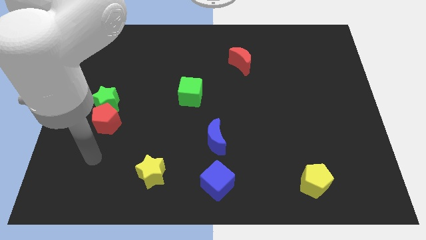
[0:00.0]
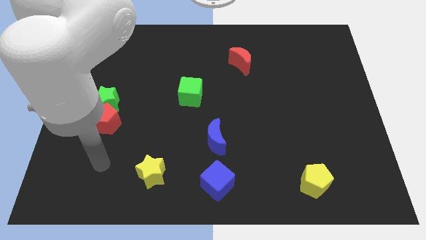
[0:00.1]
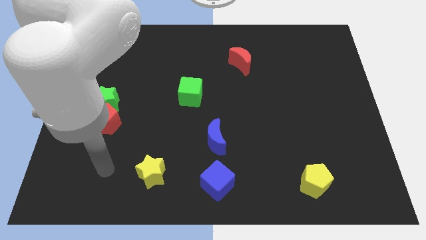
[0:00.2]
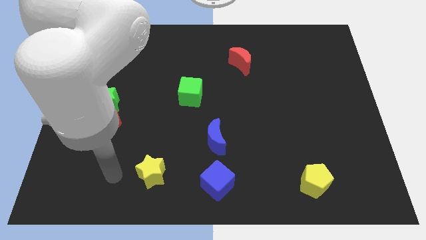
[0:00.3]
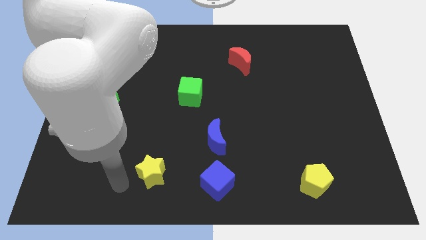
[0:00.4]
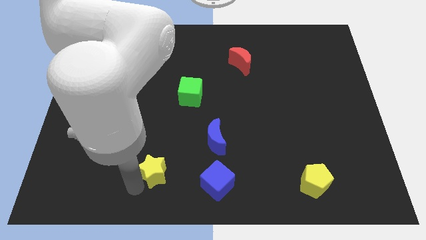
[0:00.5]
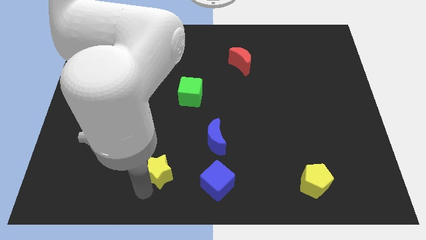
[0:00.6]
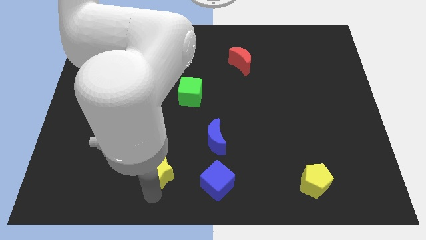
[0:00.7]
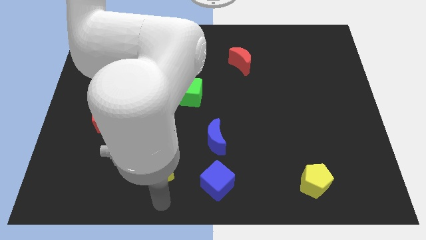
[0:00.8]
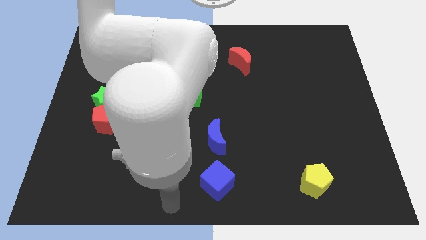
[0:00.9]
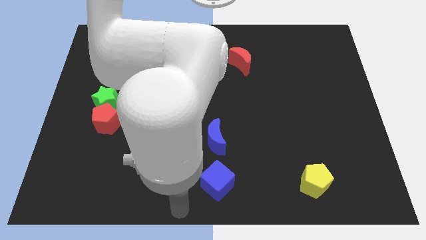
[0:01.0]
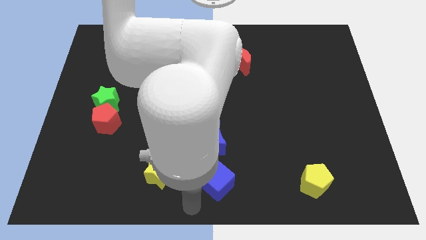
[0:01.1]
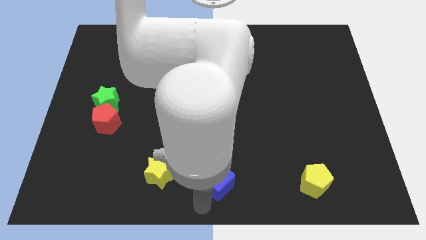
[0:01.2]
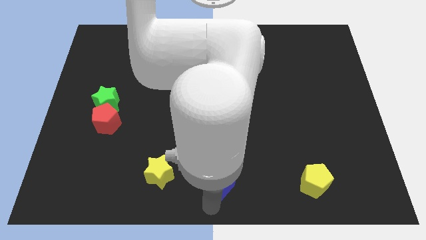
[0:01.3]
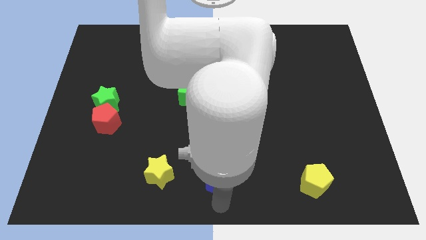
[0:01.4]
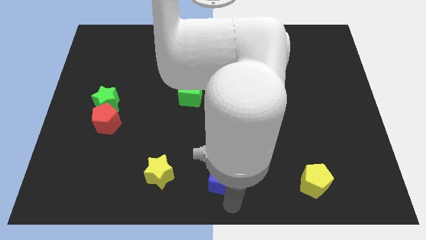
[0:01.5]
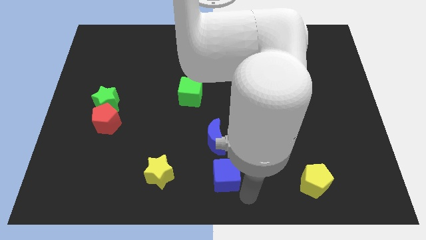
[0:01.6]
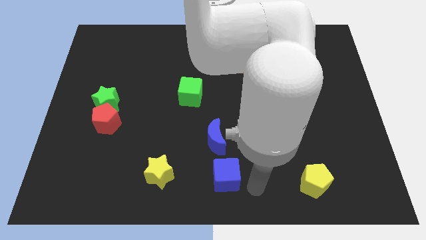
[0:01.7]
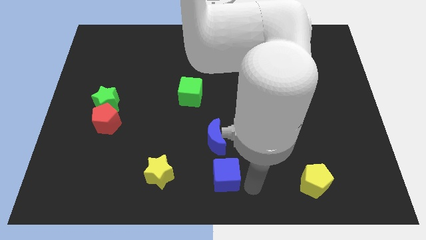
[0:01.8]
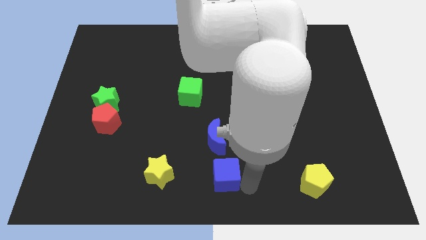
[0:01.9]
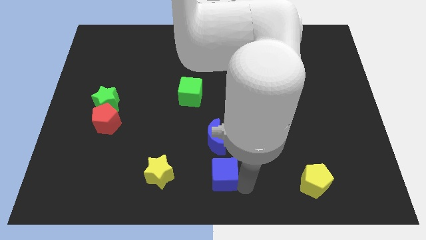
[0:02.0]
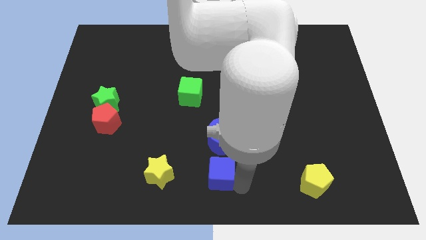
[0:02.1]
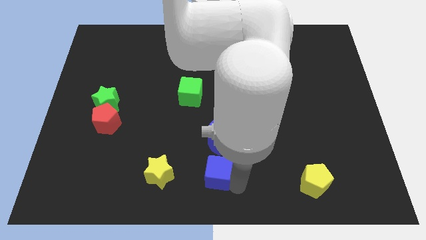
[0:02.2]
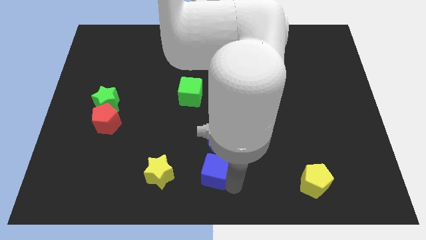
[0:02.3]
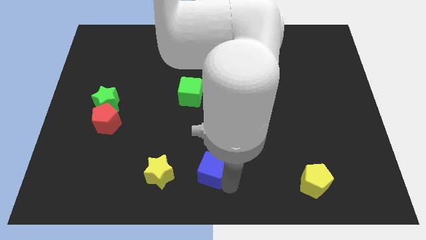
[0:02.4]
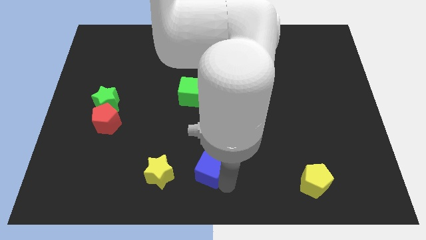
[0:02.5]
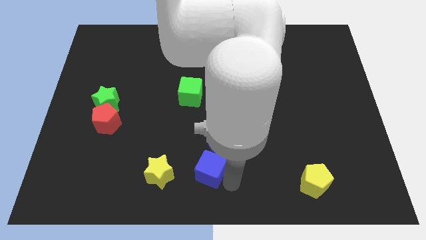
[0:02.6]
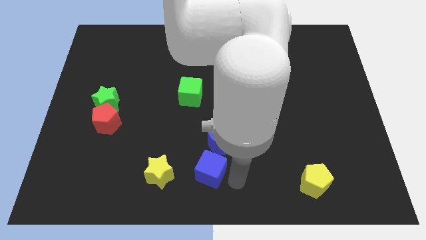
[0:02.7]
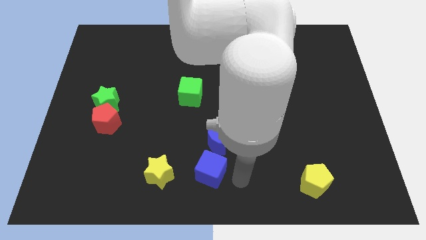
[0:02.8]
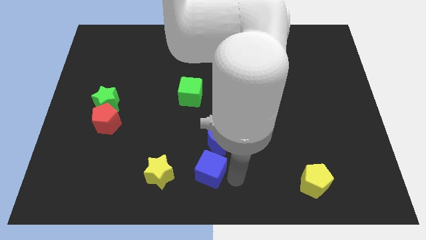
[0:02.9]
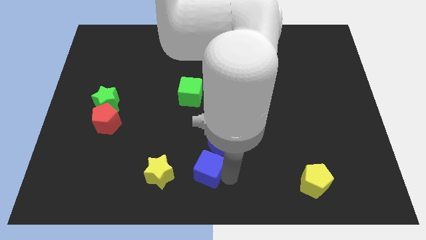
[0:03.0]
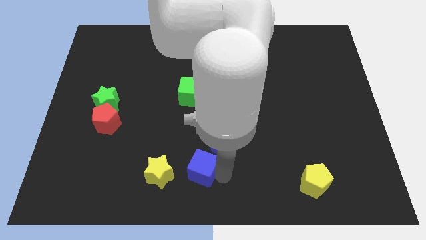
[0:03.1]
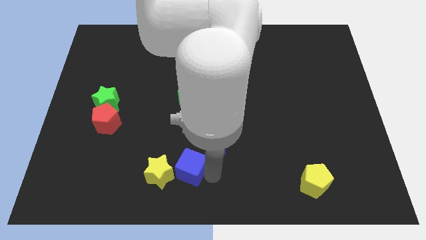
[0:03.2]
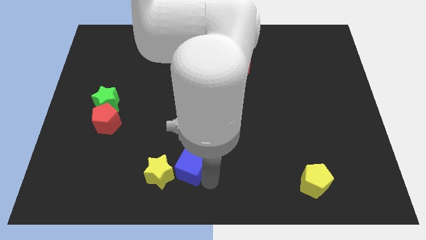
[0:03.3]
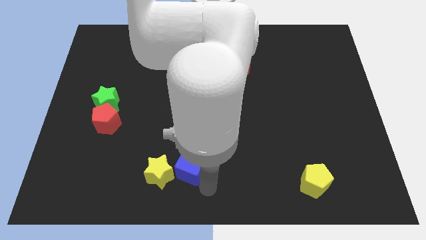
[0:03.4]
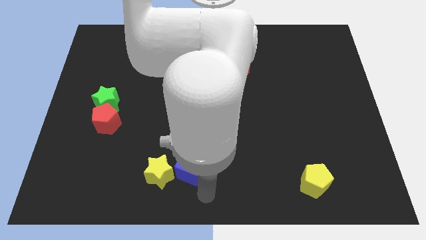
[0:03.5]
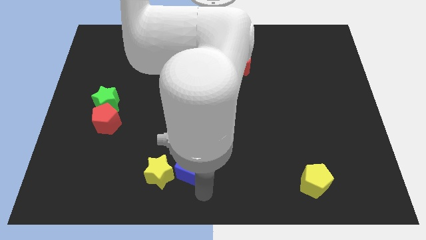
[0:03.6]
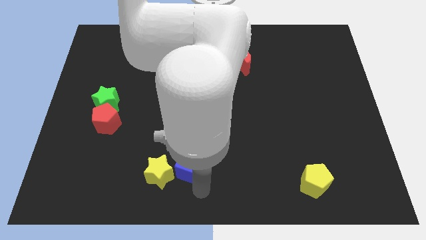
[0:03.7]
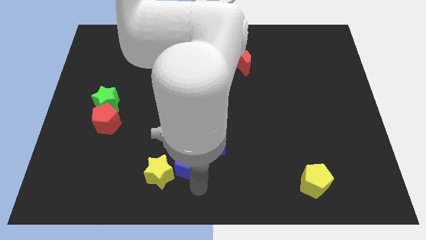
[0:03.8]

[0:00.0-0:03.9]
slightly slide the blue cube up and to the left diagonally

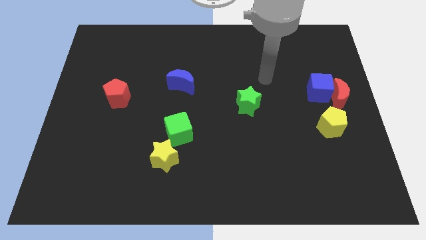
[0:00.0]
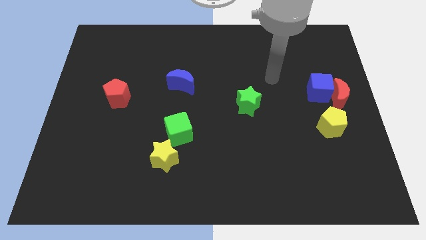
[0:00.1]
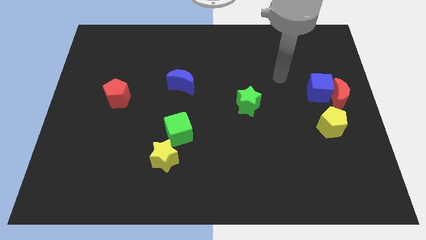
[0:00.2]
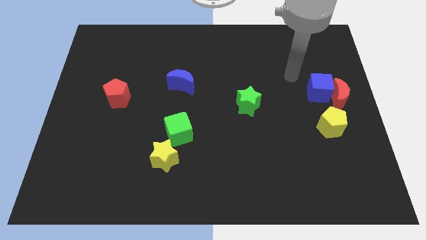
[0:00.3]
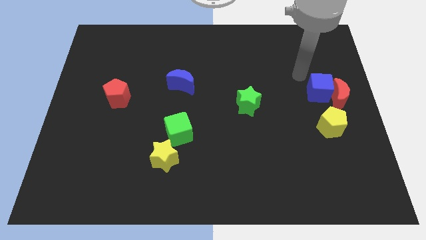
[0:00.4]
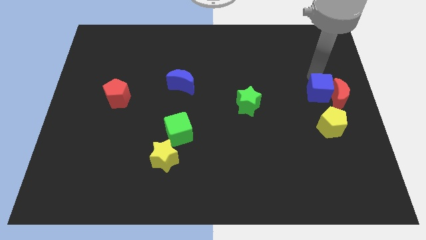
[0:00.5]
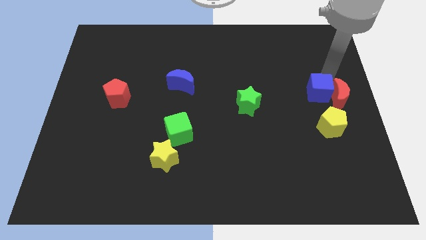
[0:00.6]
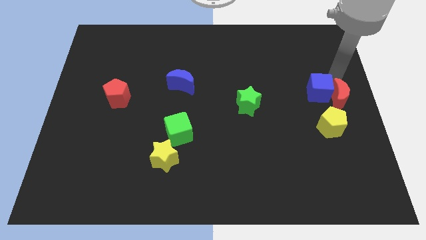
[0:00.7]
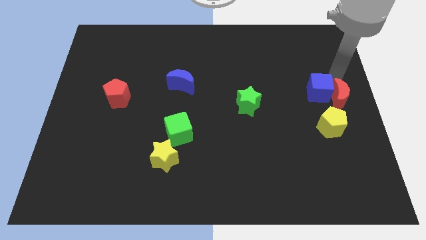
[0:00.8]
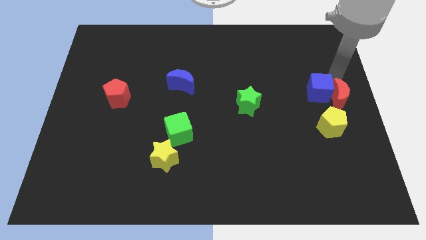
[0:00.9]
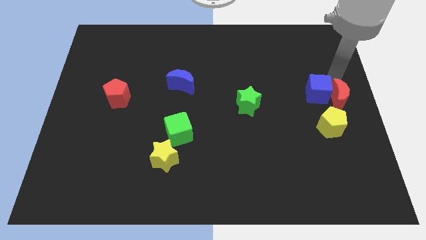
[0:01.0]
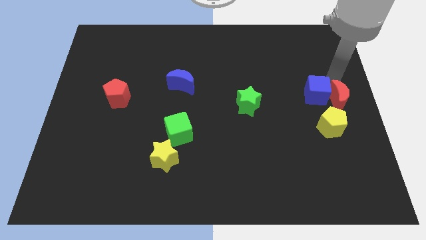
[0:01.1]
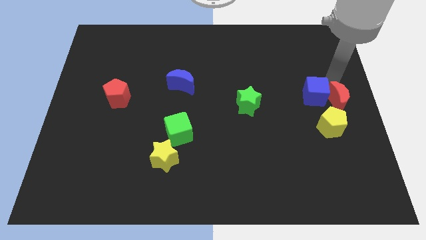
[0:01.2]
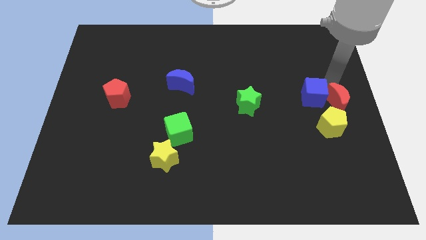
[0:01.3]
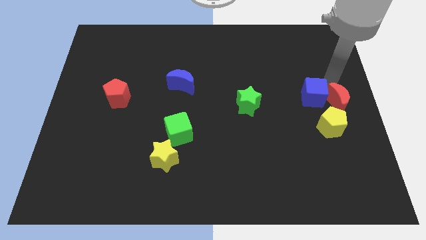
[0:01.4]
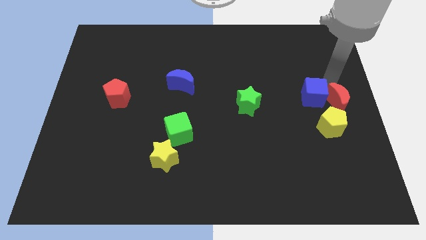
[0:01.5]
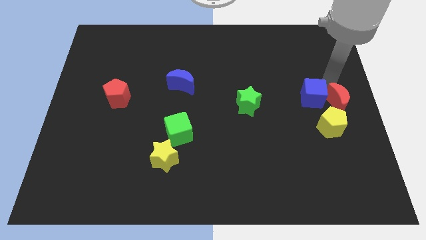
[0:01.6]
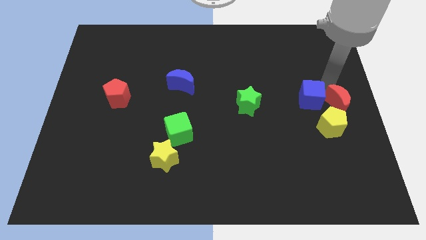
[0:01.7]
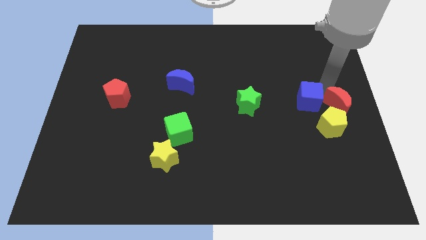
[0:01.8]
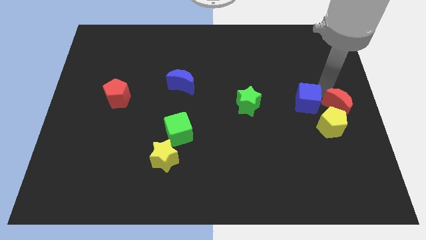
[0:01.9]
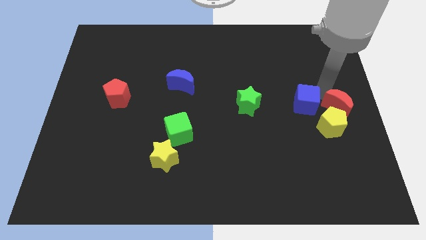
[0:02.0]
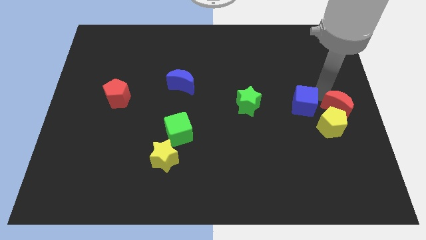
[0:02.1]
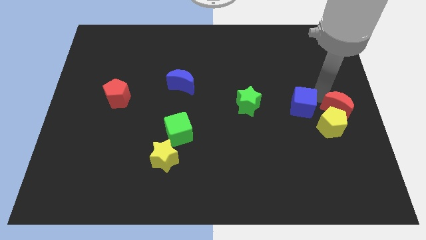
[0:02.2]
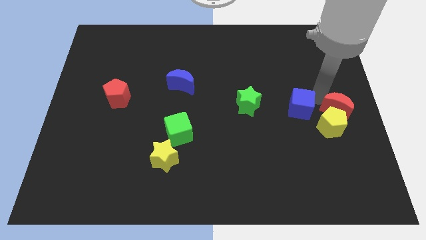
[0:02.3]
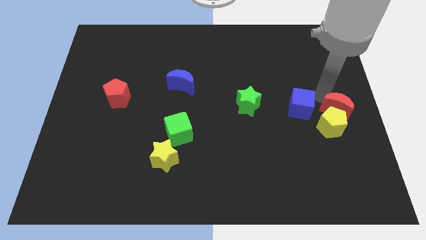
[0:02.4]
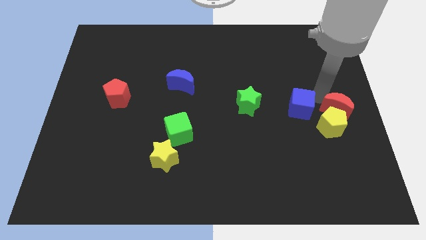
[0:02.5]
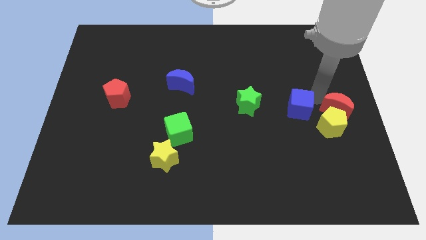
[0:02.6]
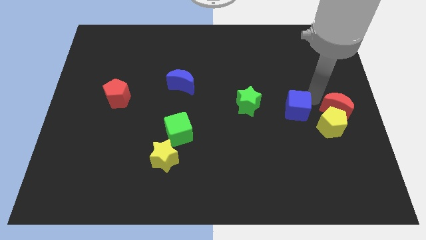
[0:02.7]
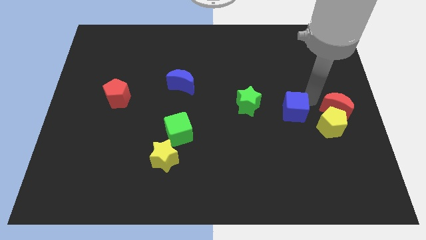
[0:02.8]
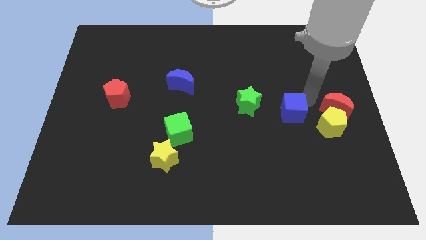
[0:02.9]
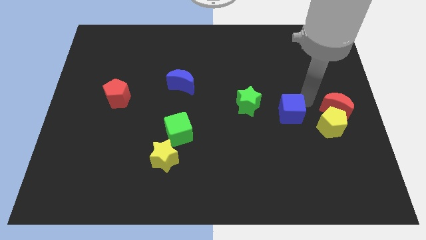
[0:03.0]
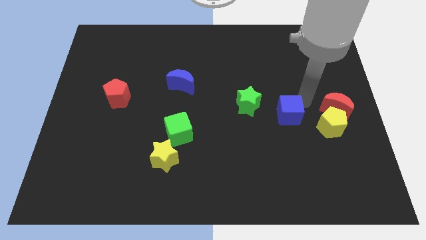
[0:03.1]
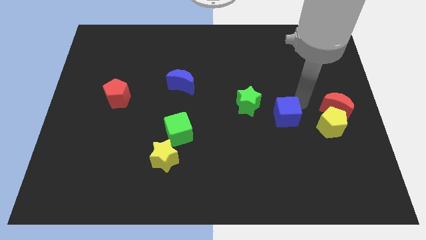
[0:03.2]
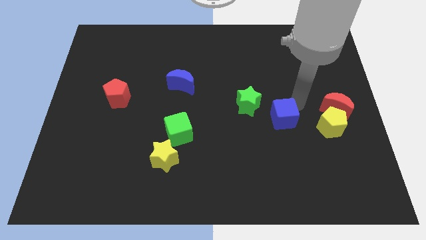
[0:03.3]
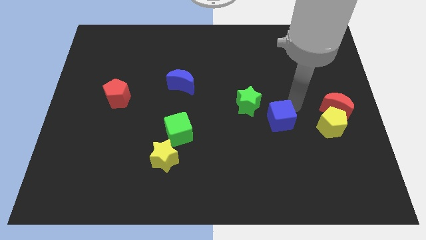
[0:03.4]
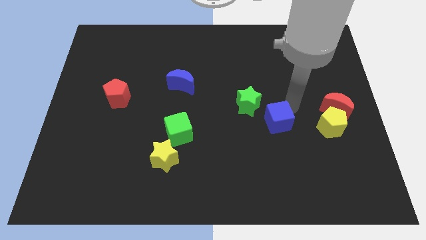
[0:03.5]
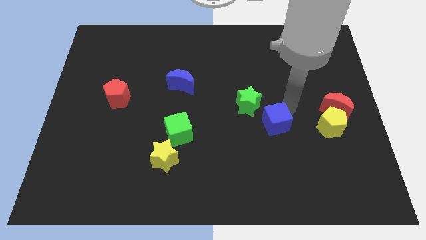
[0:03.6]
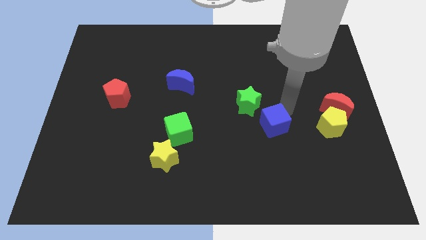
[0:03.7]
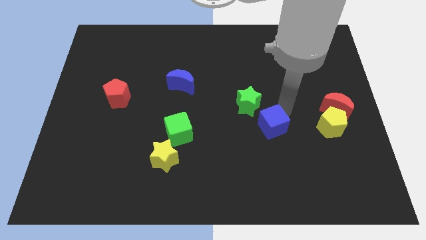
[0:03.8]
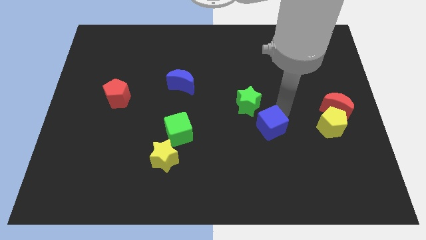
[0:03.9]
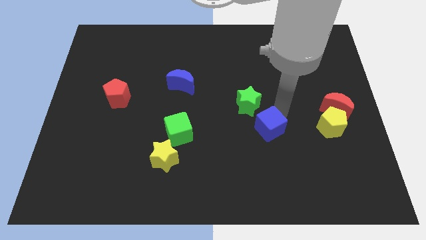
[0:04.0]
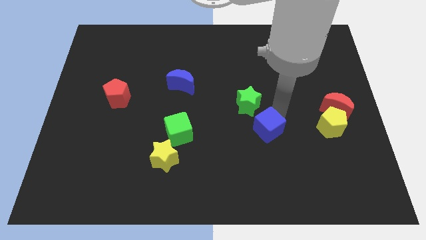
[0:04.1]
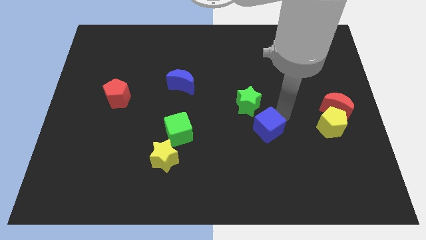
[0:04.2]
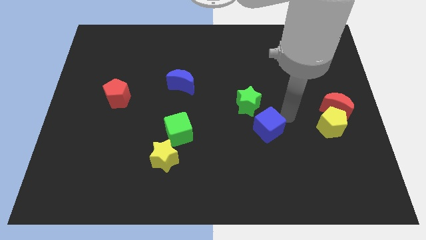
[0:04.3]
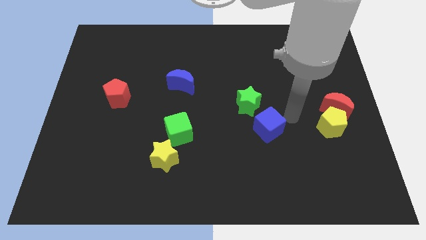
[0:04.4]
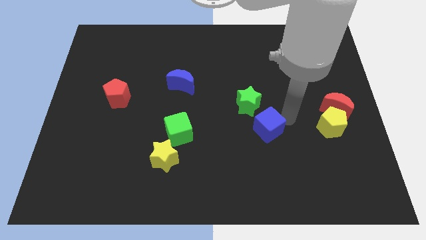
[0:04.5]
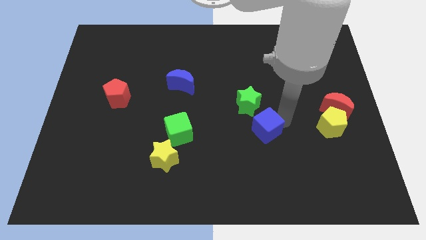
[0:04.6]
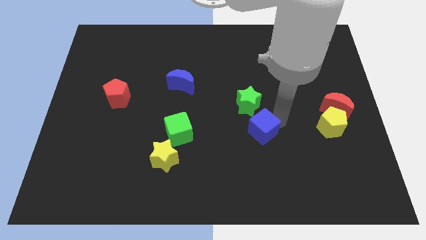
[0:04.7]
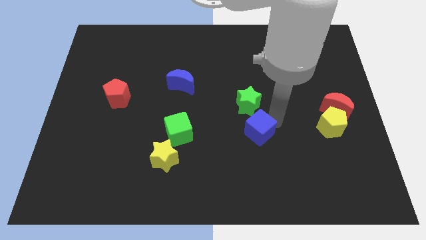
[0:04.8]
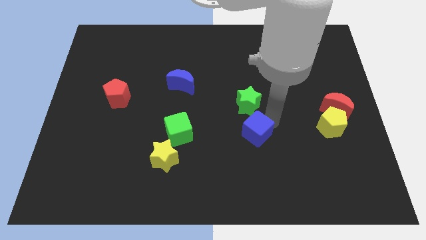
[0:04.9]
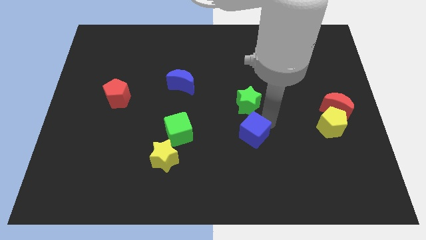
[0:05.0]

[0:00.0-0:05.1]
move the blue cube down and left
